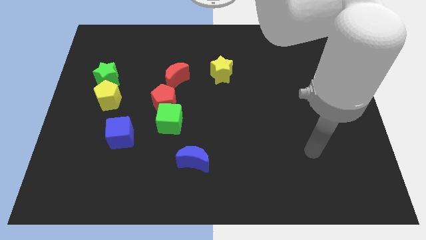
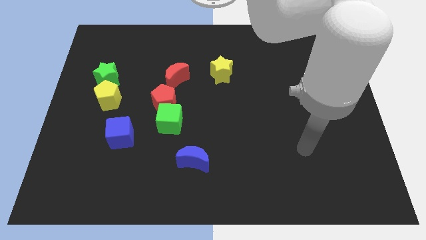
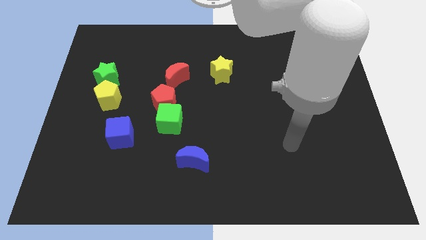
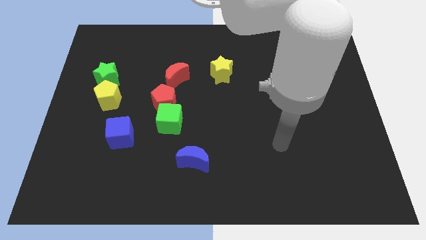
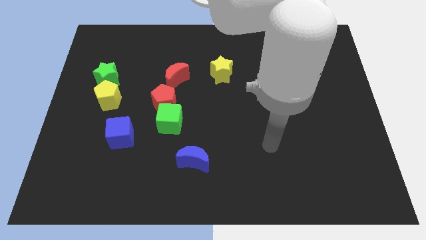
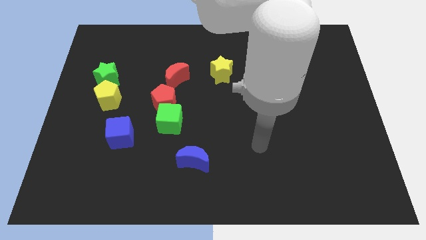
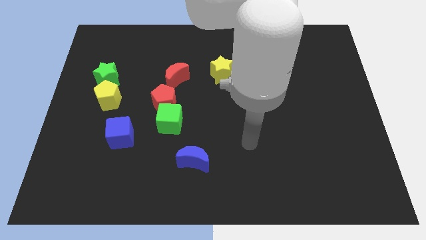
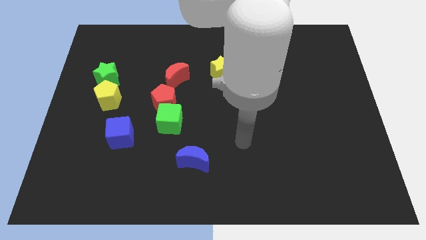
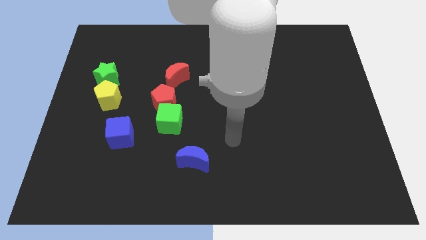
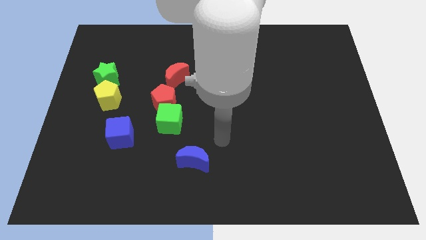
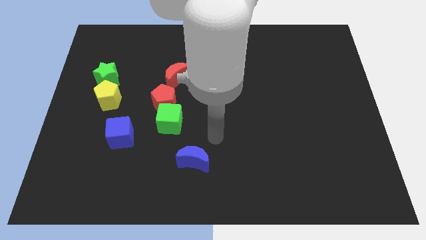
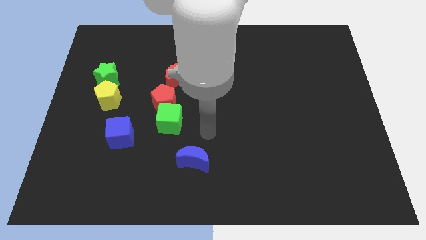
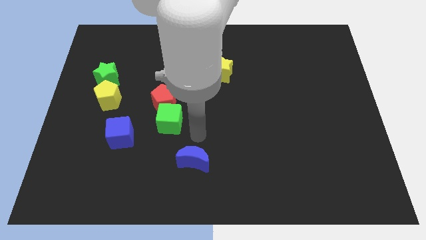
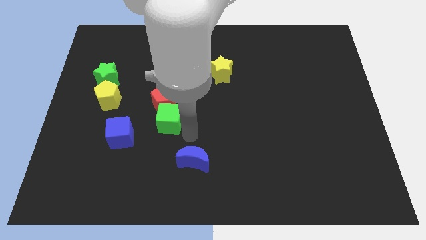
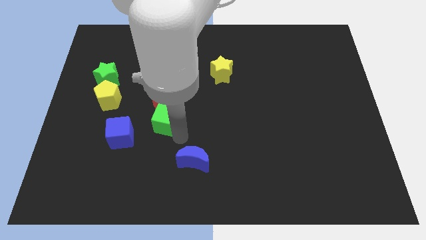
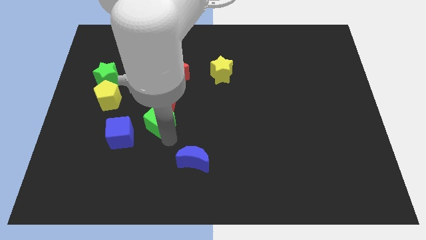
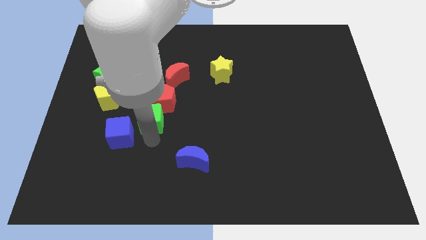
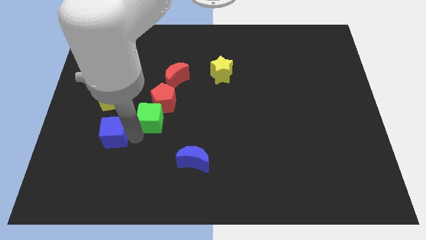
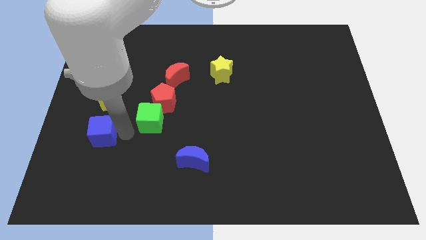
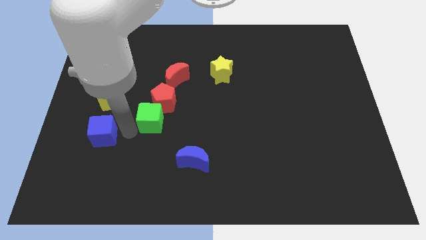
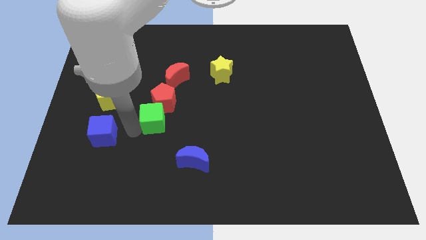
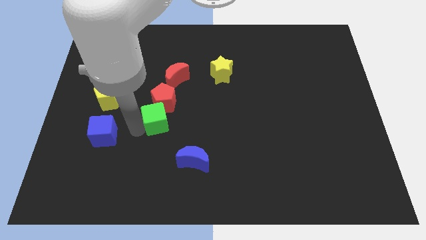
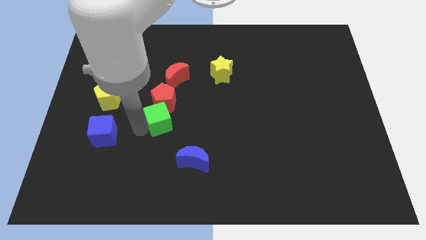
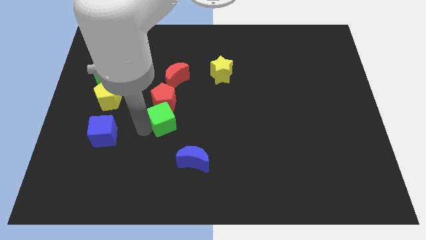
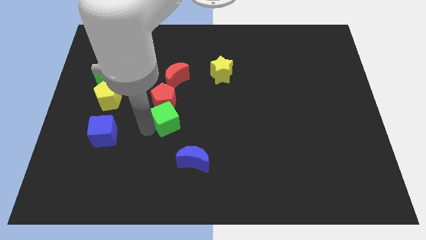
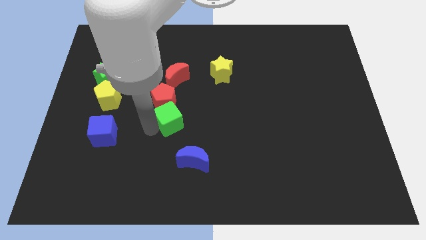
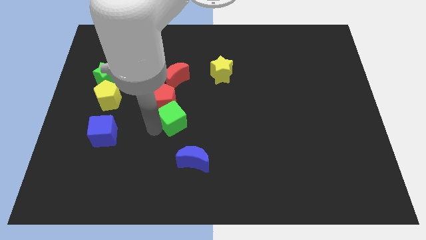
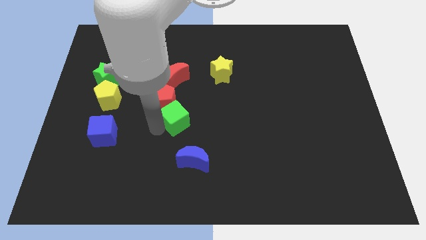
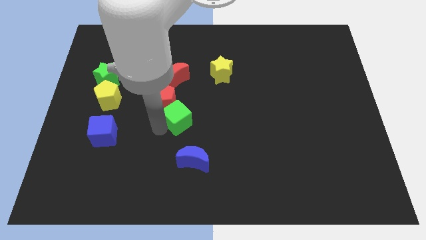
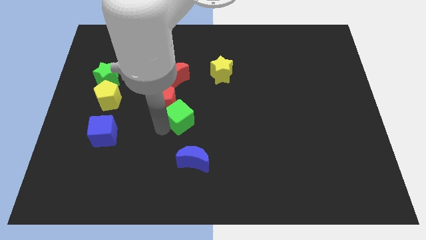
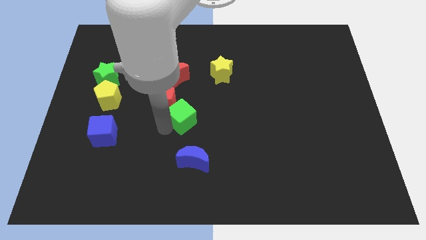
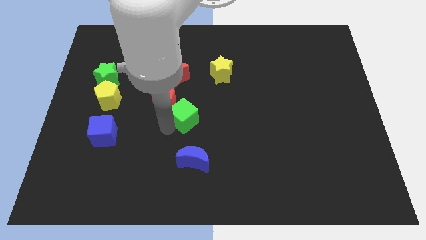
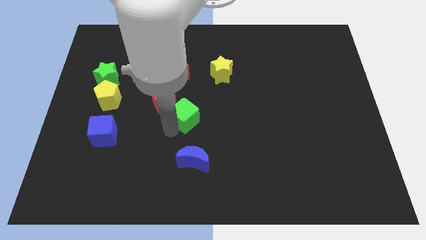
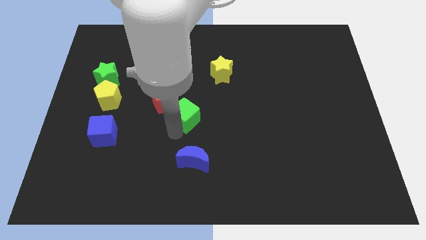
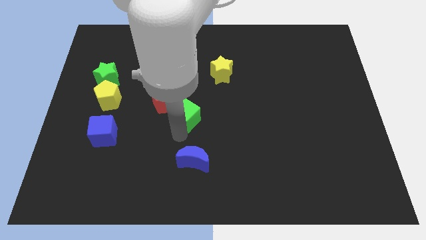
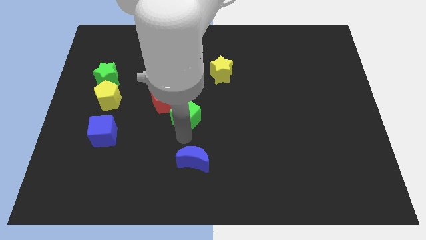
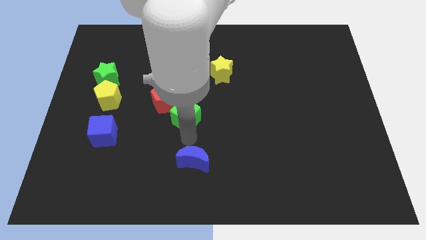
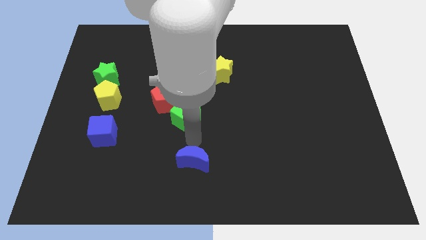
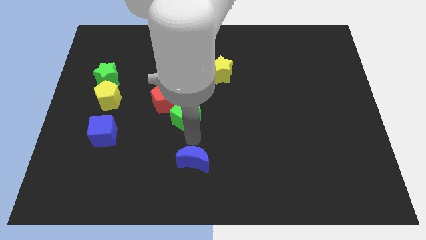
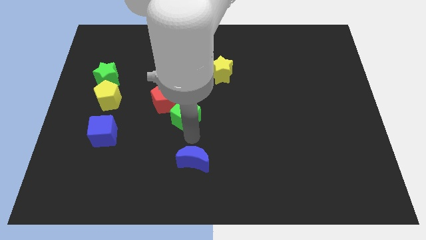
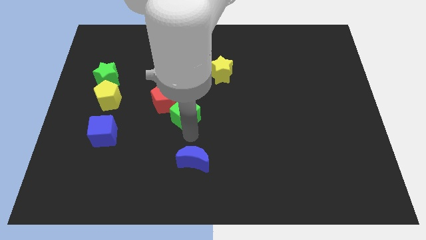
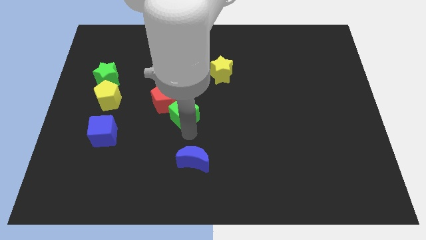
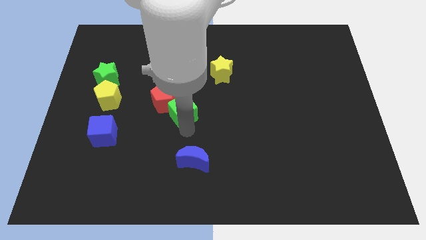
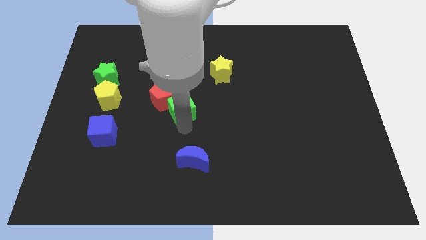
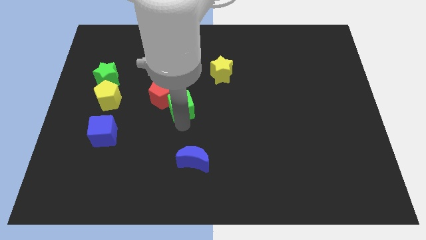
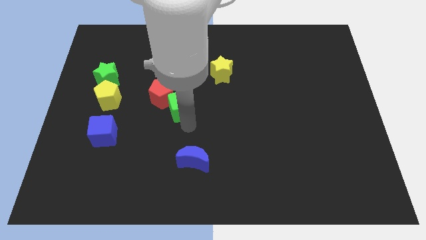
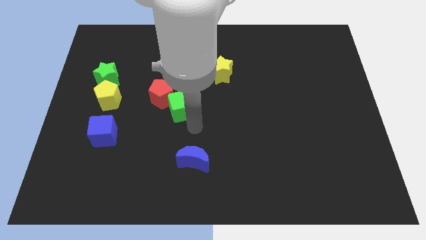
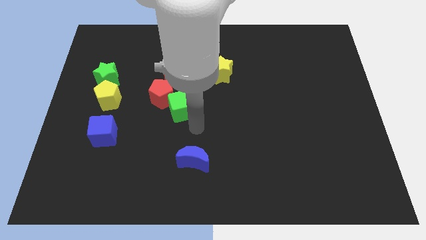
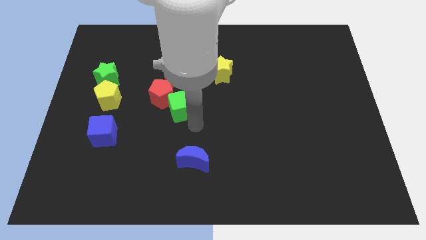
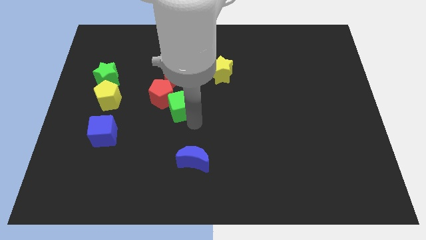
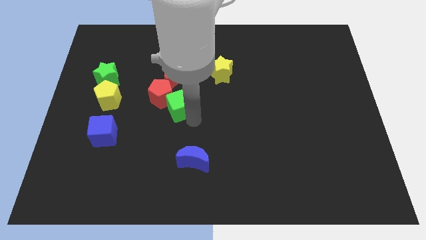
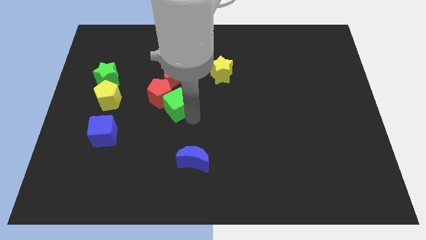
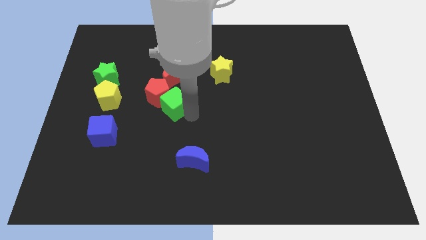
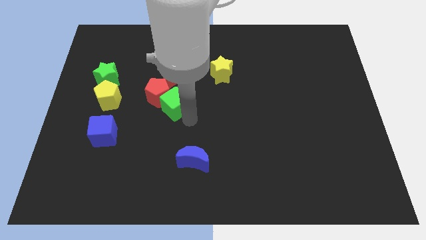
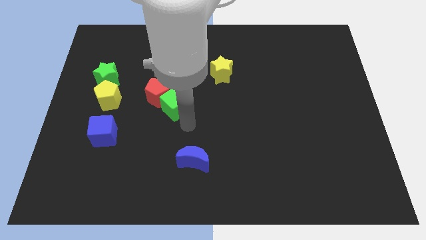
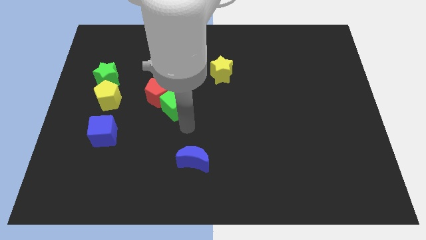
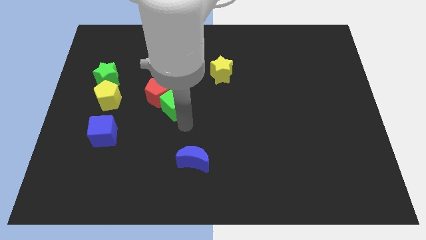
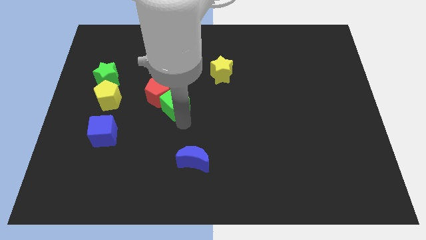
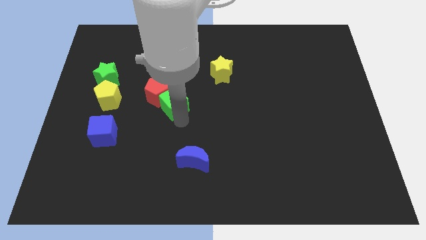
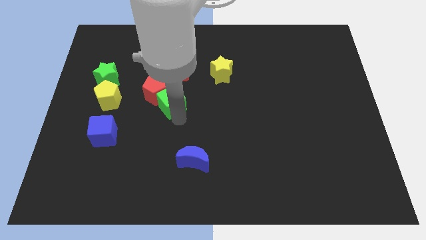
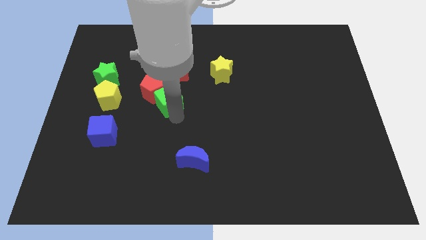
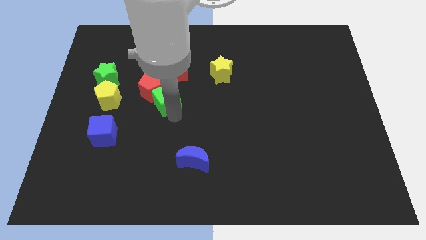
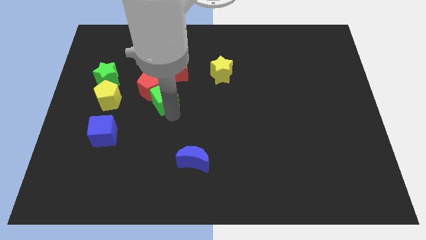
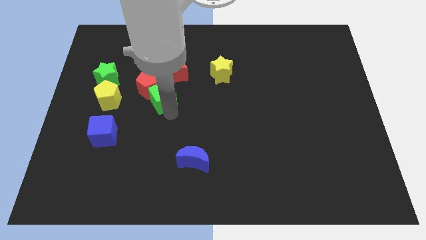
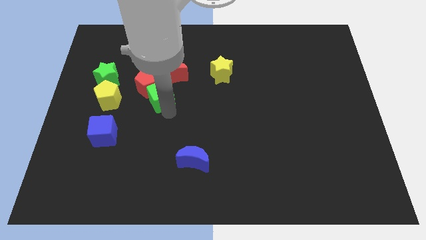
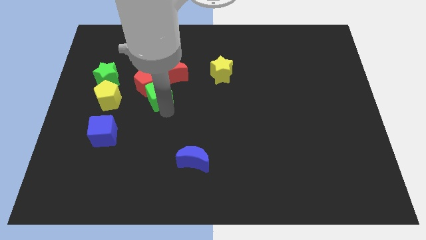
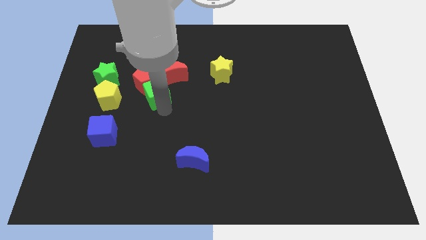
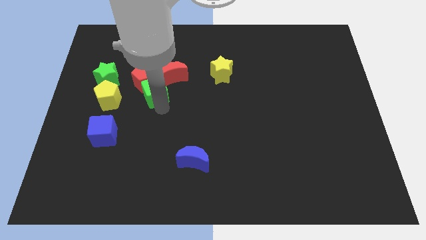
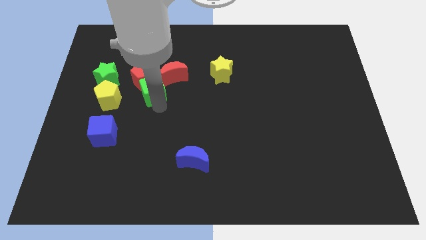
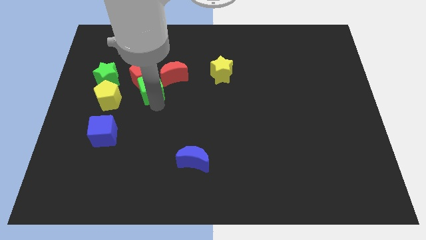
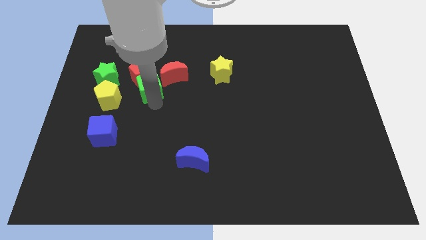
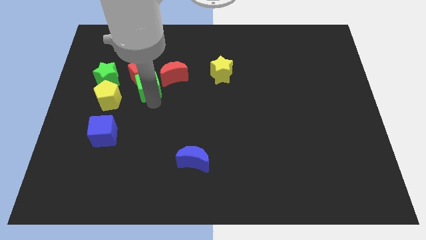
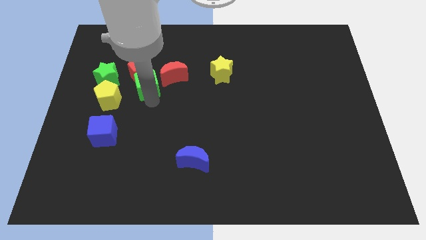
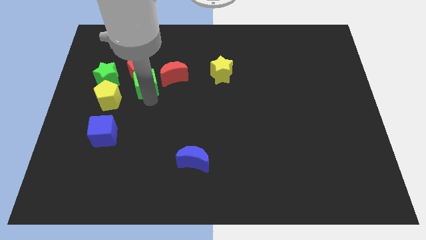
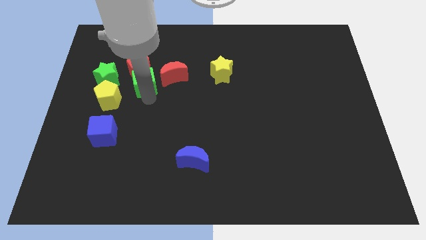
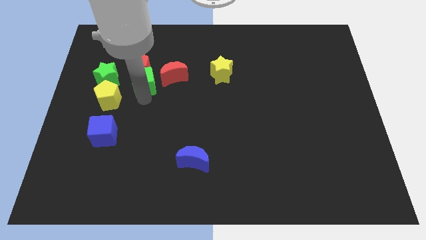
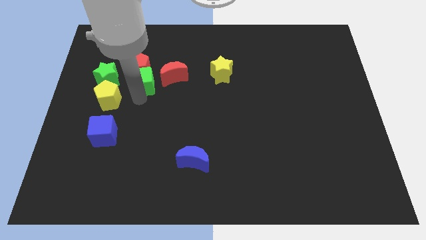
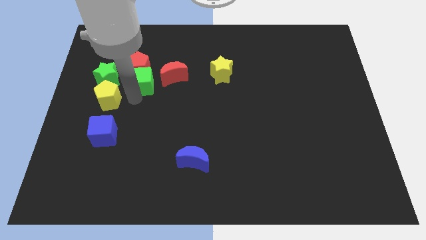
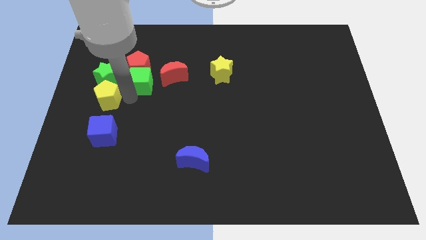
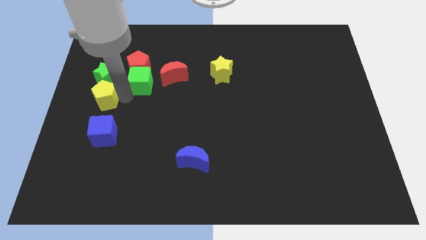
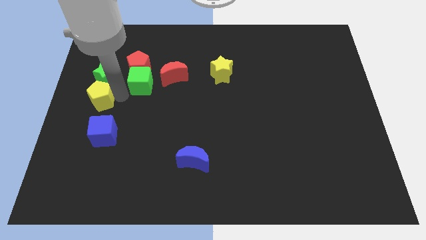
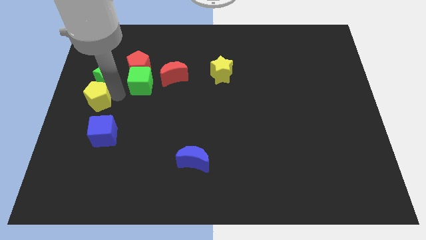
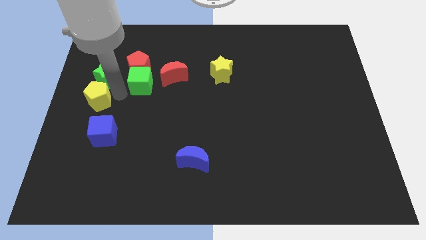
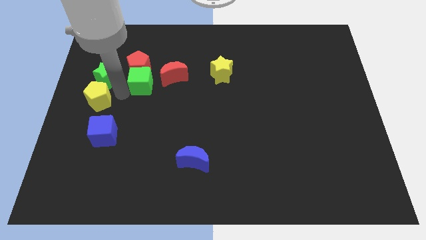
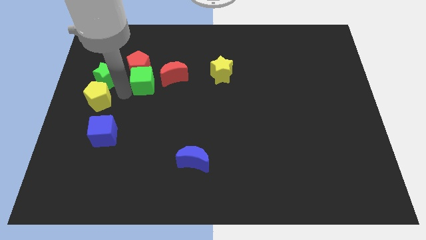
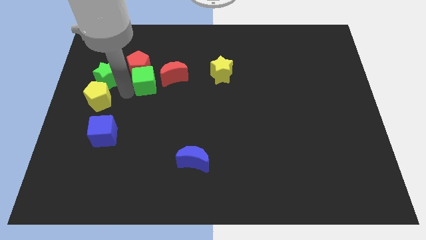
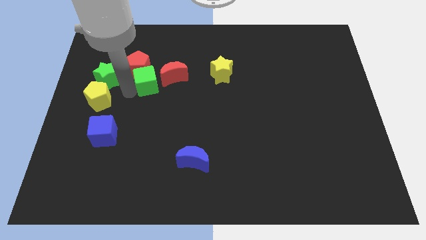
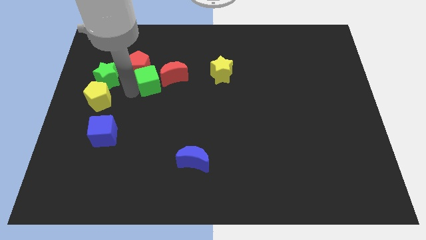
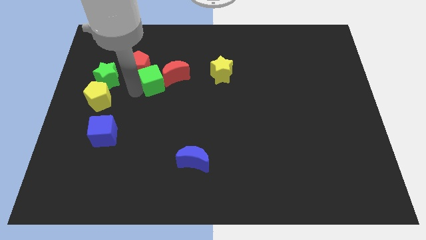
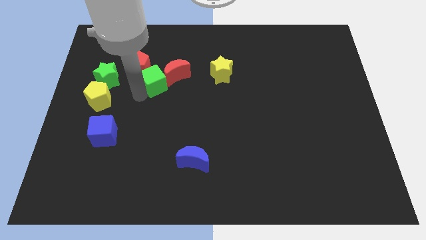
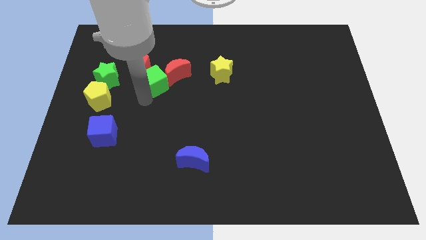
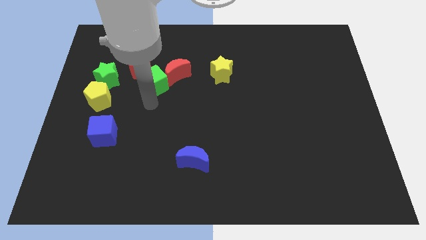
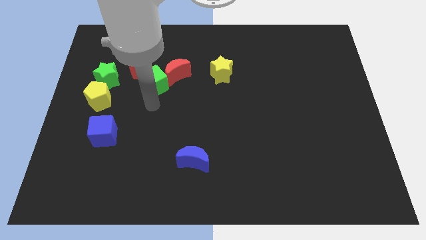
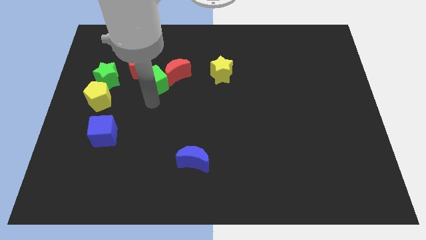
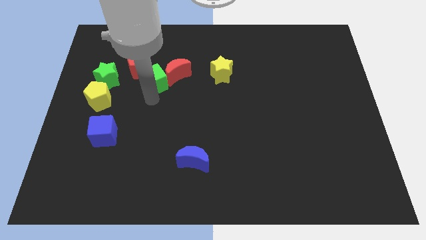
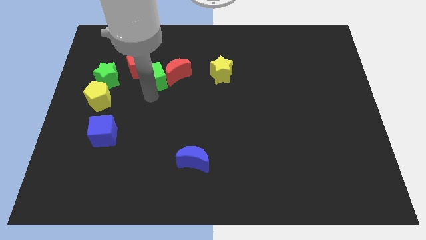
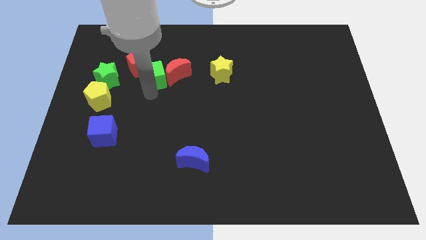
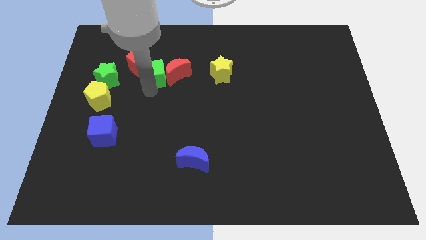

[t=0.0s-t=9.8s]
put the green cube to the top left of the red moon
